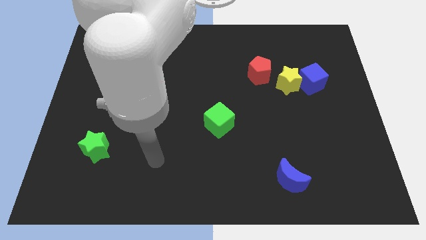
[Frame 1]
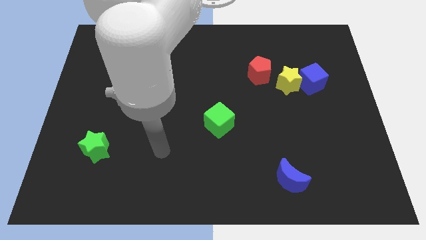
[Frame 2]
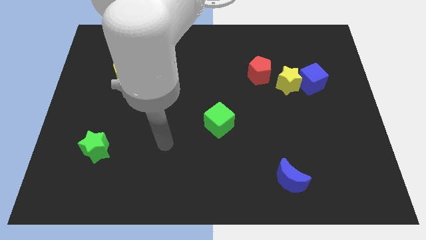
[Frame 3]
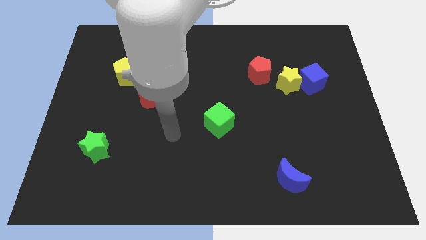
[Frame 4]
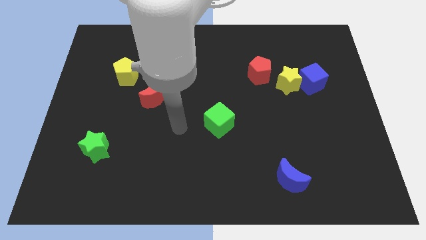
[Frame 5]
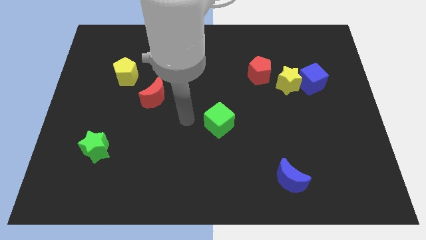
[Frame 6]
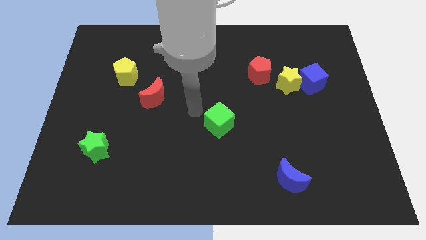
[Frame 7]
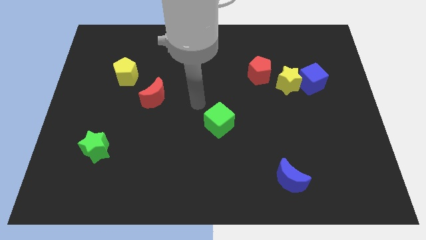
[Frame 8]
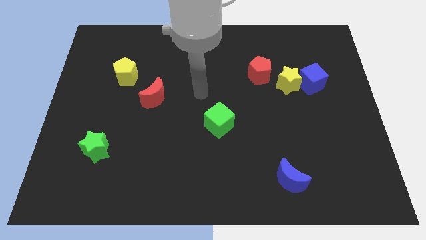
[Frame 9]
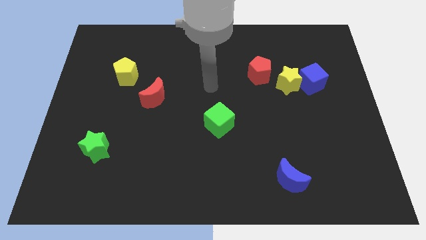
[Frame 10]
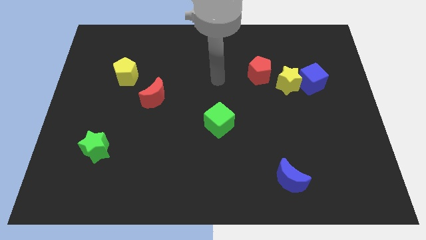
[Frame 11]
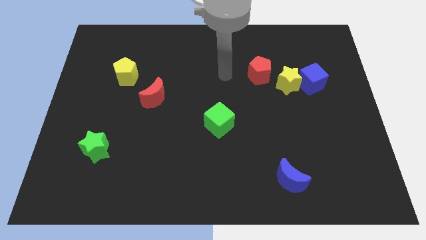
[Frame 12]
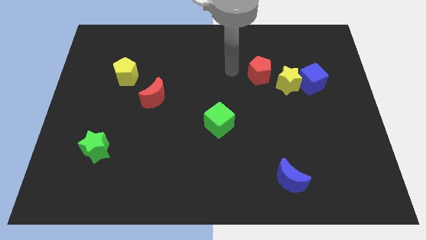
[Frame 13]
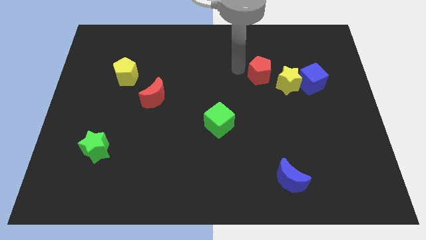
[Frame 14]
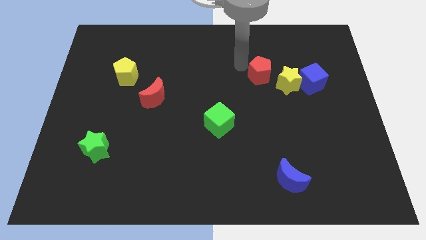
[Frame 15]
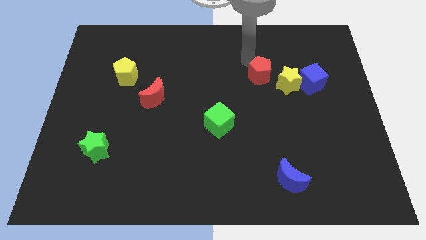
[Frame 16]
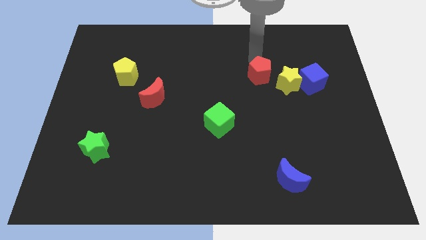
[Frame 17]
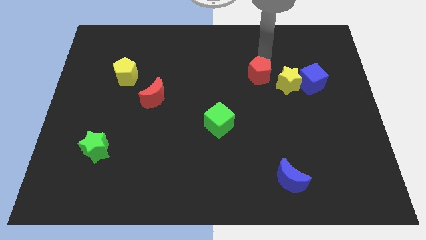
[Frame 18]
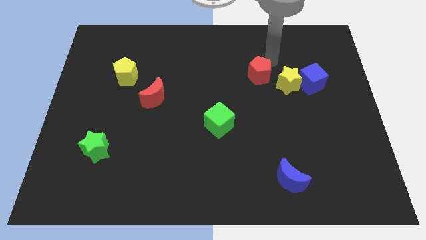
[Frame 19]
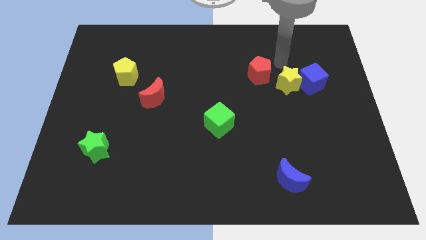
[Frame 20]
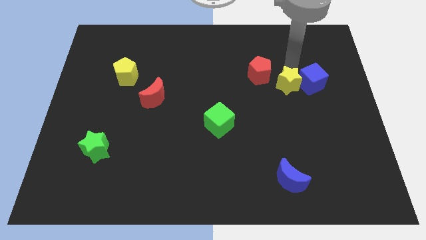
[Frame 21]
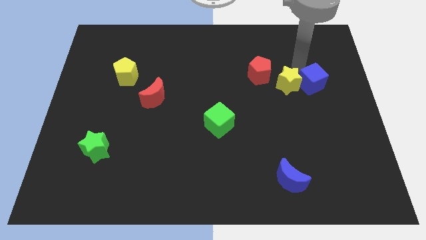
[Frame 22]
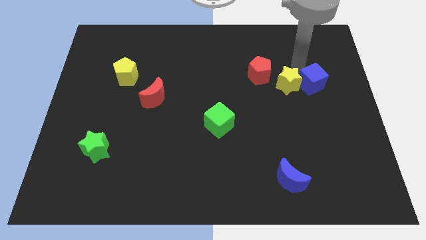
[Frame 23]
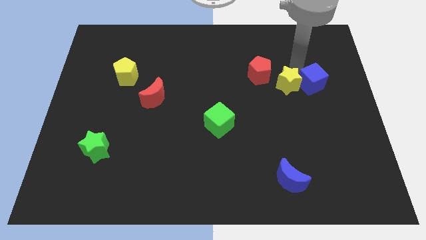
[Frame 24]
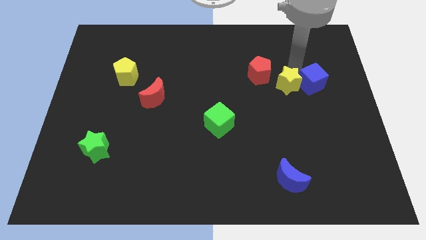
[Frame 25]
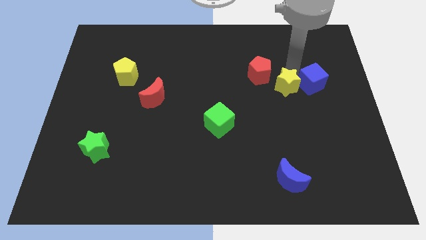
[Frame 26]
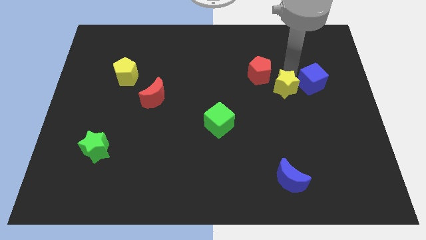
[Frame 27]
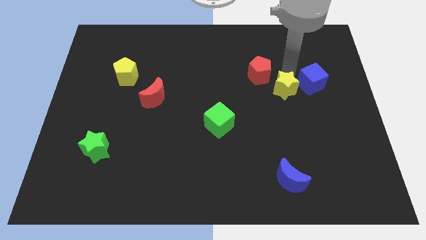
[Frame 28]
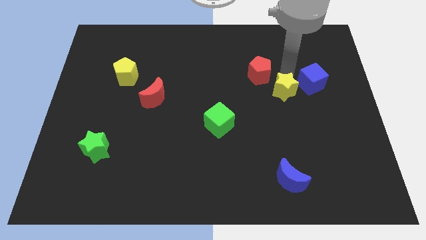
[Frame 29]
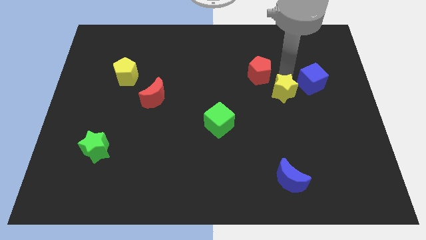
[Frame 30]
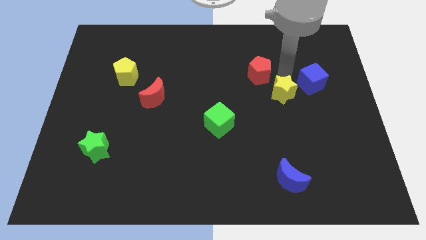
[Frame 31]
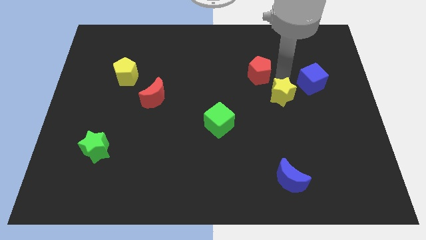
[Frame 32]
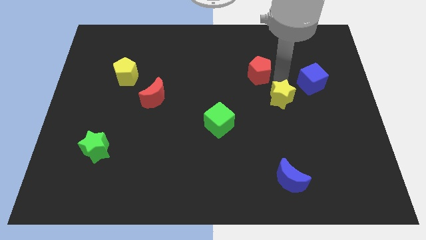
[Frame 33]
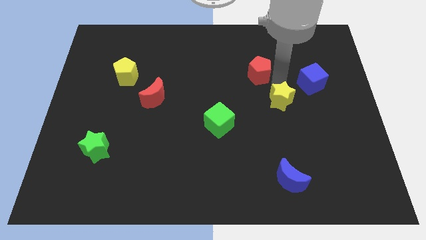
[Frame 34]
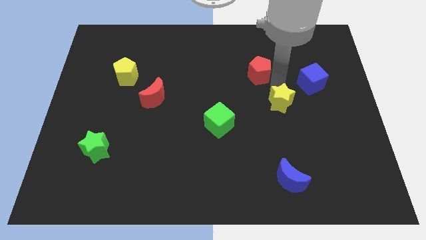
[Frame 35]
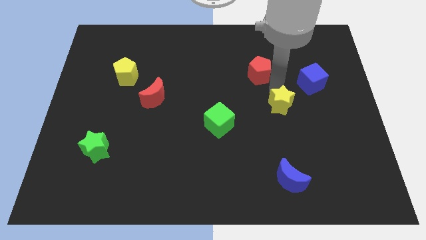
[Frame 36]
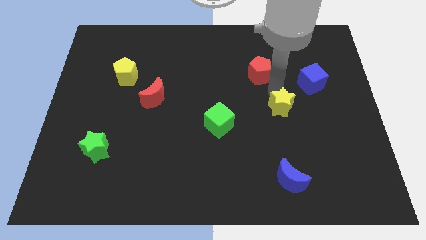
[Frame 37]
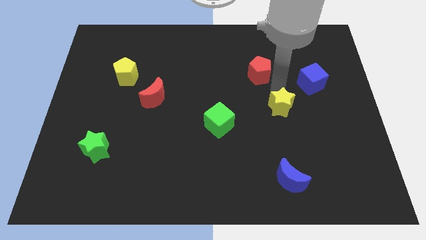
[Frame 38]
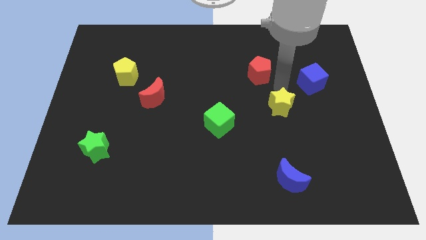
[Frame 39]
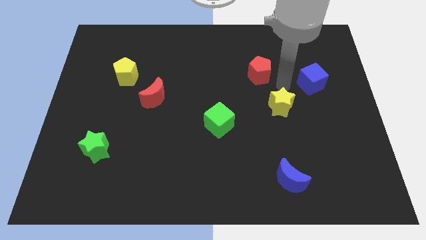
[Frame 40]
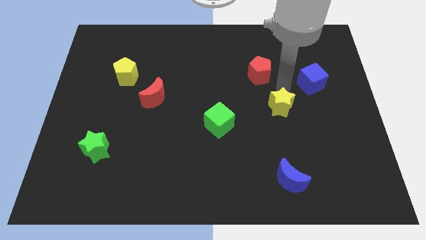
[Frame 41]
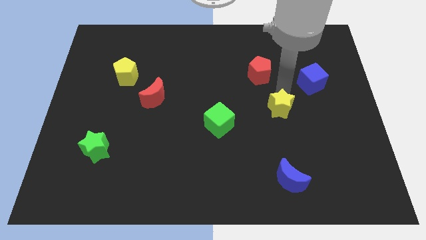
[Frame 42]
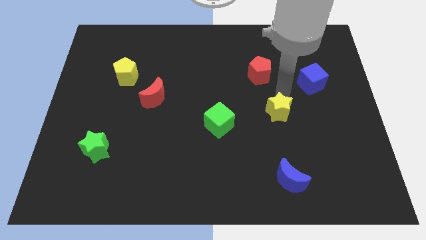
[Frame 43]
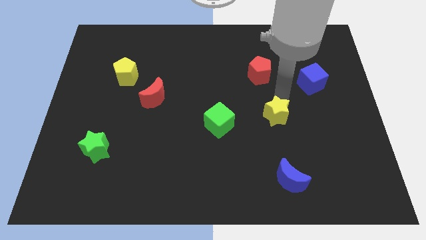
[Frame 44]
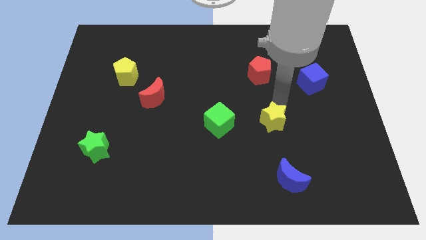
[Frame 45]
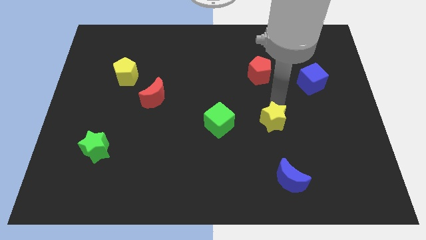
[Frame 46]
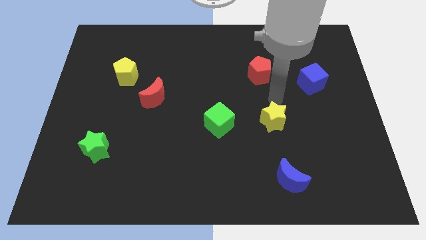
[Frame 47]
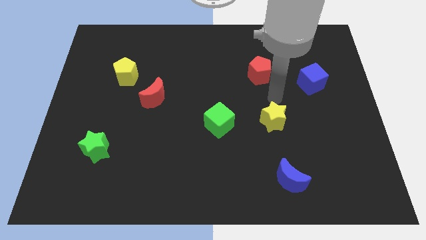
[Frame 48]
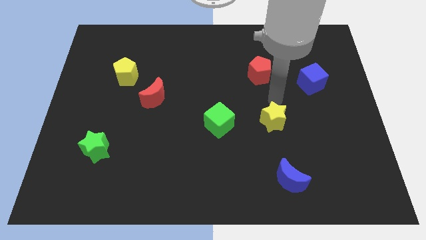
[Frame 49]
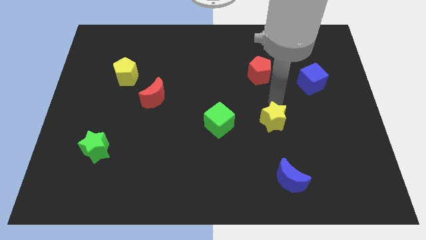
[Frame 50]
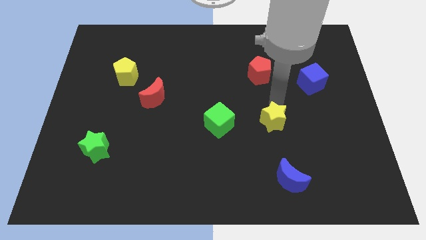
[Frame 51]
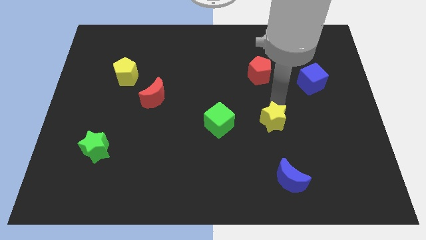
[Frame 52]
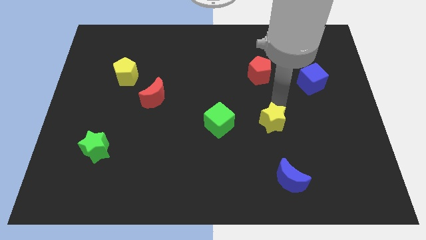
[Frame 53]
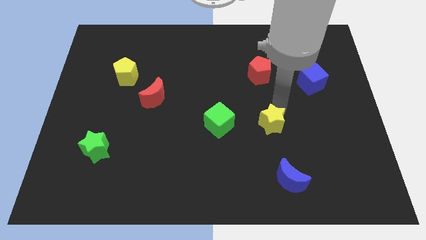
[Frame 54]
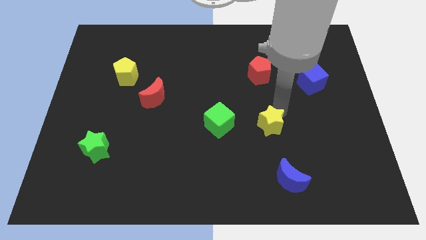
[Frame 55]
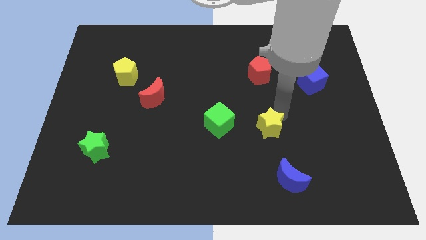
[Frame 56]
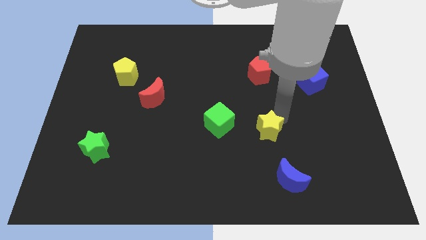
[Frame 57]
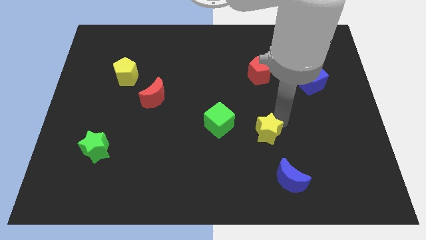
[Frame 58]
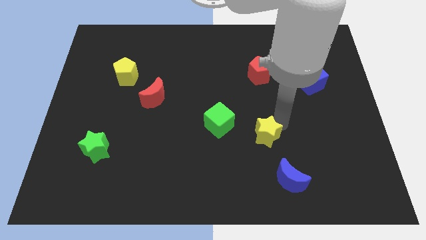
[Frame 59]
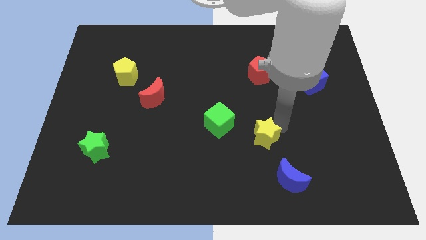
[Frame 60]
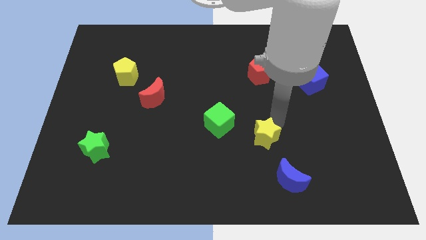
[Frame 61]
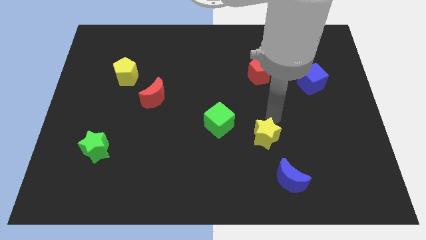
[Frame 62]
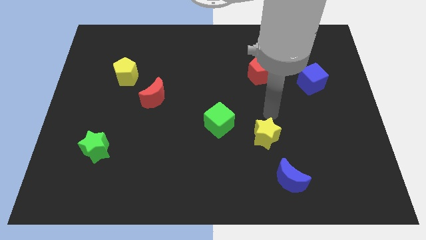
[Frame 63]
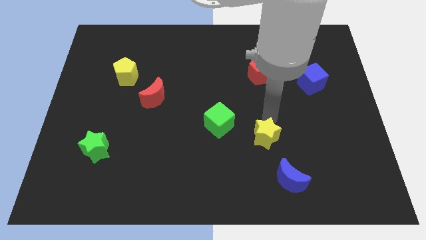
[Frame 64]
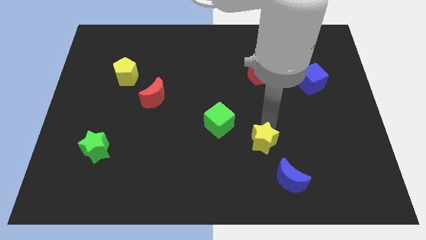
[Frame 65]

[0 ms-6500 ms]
put the yellow star to the top left side of the blue moon

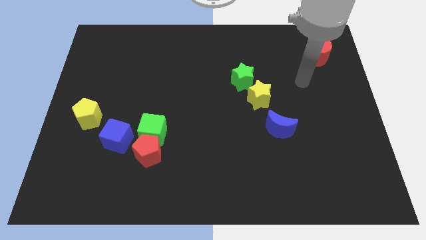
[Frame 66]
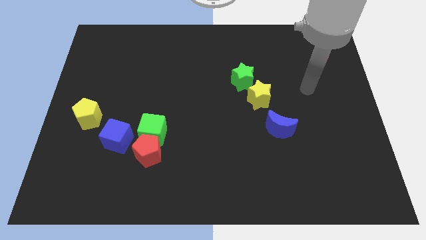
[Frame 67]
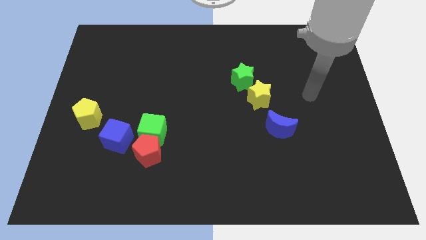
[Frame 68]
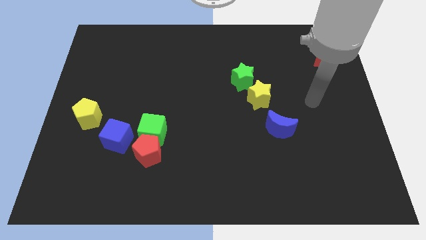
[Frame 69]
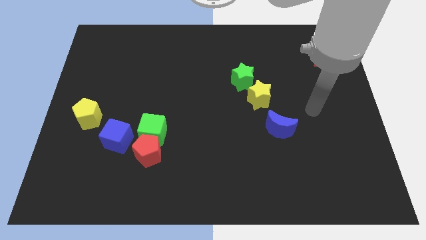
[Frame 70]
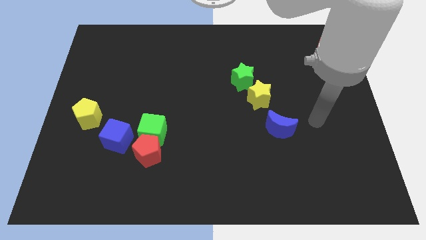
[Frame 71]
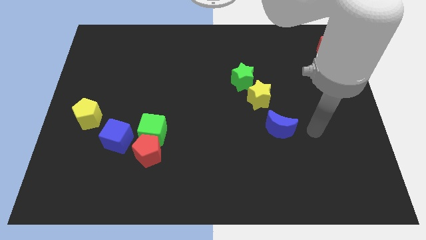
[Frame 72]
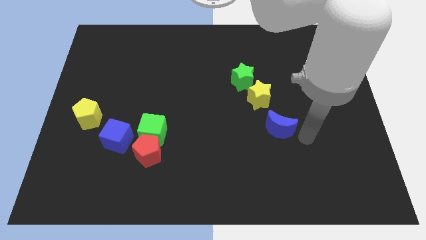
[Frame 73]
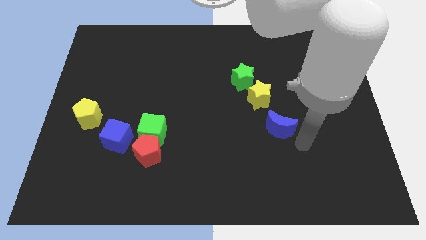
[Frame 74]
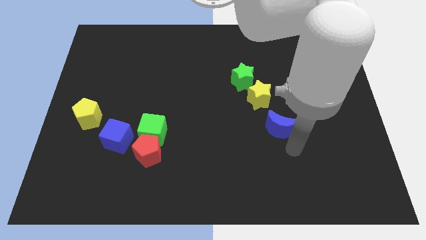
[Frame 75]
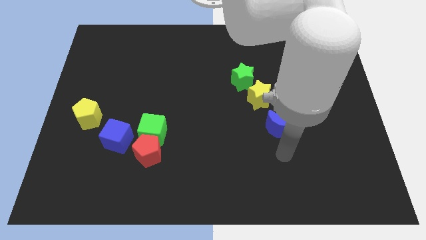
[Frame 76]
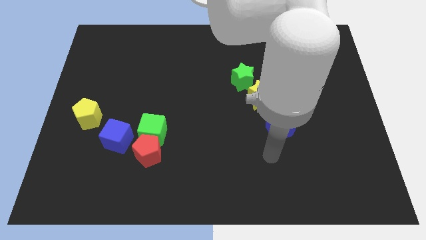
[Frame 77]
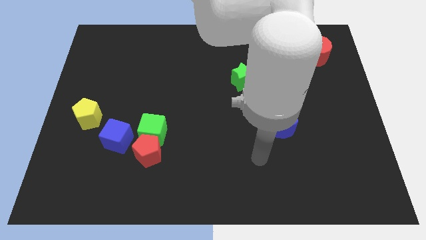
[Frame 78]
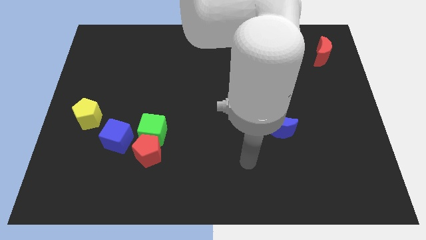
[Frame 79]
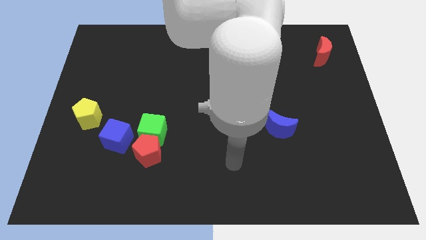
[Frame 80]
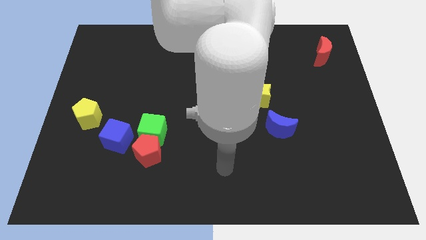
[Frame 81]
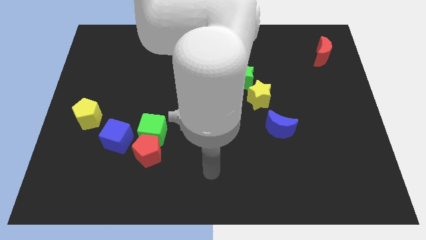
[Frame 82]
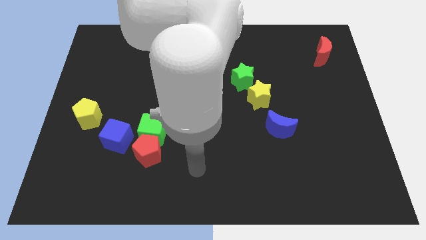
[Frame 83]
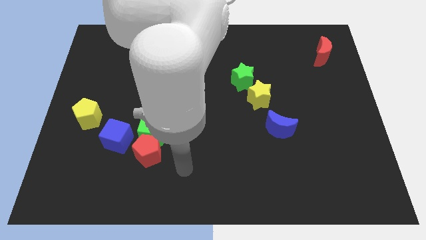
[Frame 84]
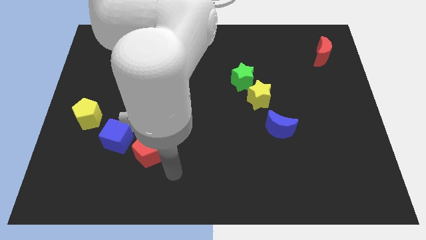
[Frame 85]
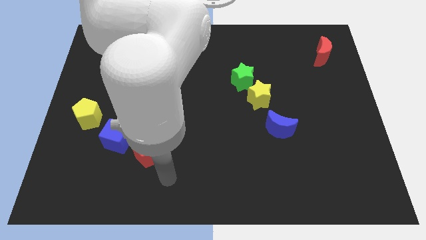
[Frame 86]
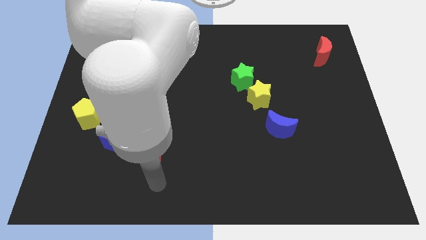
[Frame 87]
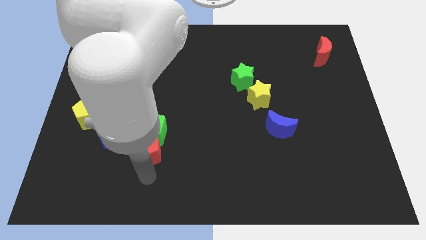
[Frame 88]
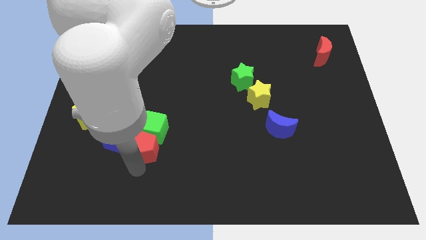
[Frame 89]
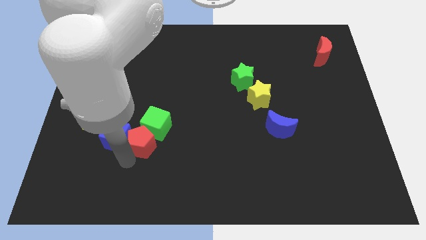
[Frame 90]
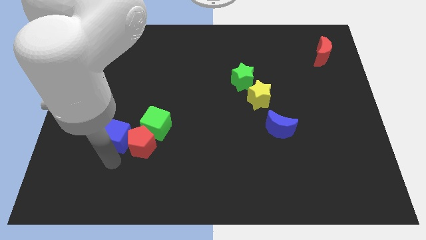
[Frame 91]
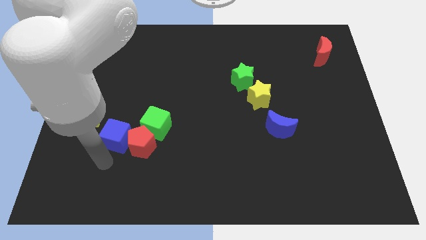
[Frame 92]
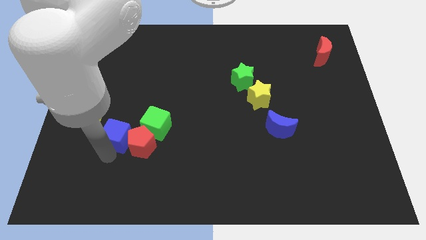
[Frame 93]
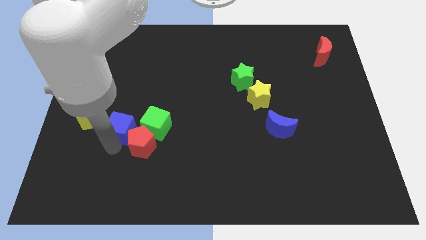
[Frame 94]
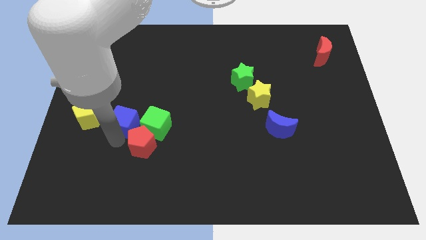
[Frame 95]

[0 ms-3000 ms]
push the blue cube to the top left of the green cube
